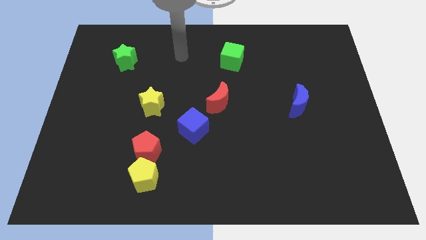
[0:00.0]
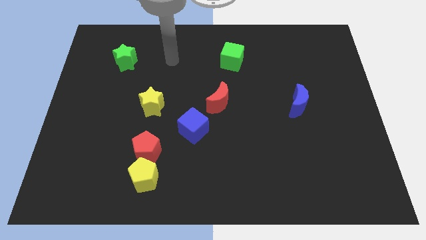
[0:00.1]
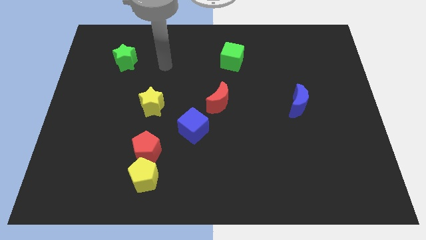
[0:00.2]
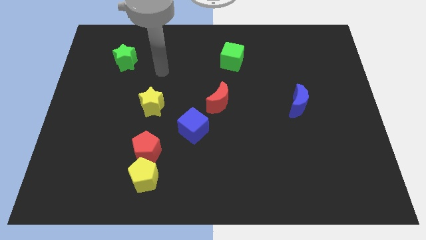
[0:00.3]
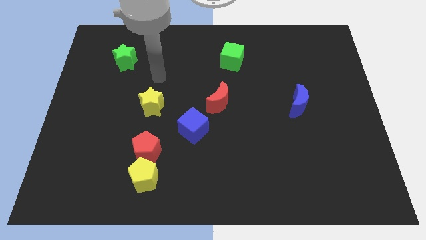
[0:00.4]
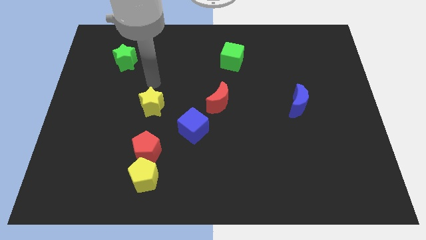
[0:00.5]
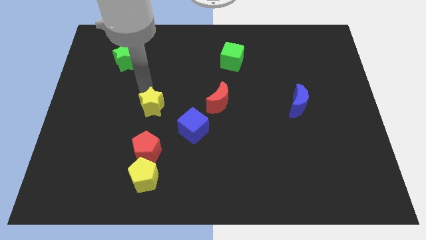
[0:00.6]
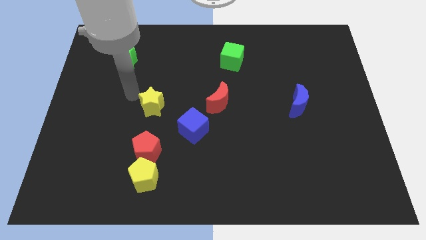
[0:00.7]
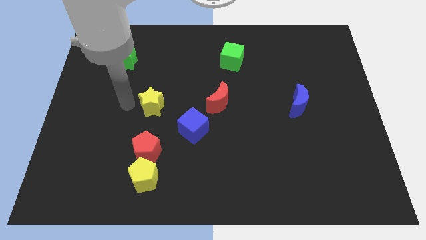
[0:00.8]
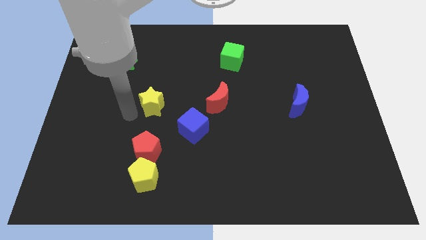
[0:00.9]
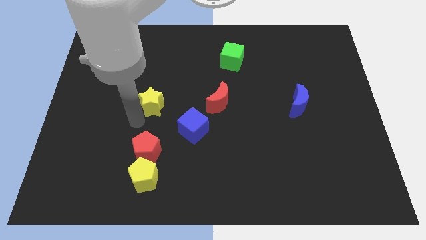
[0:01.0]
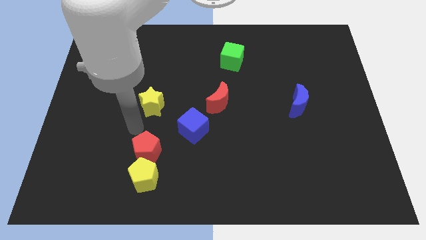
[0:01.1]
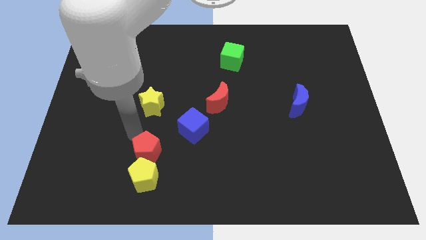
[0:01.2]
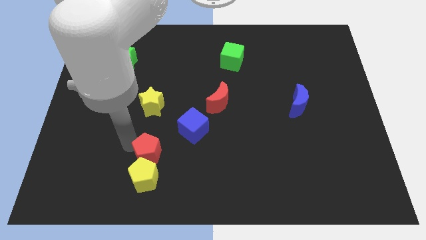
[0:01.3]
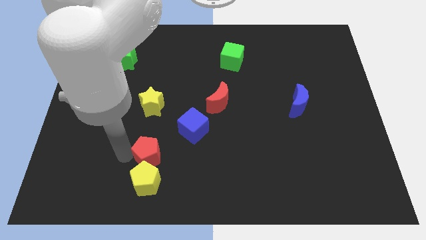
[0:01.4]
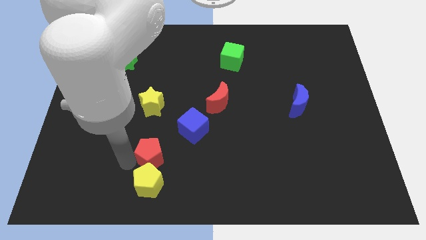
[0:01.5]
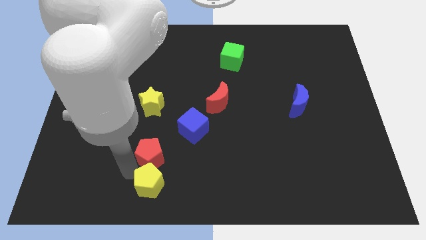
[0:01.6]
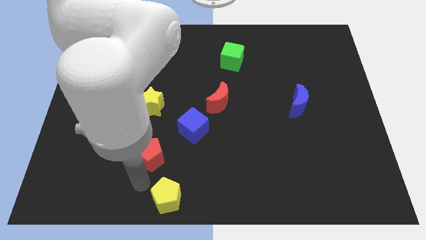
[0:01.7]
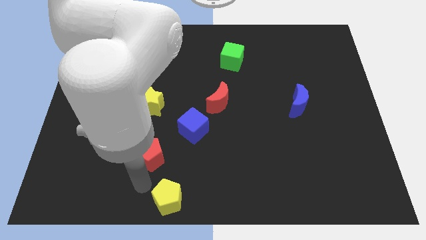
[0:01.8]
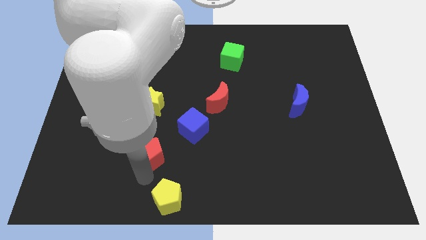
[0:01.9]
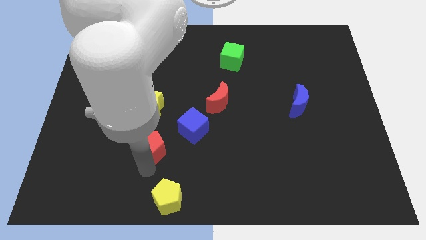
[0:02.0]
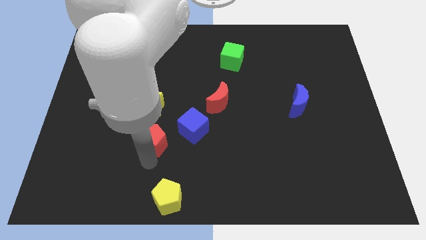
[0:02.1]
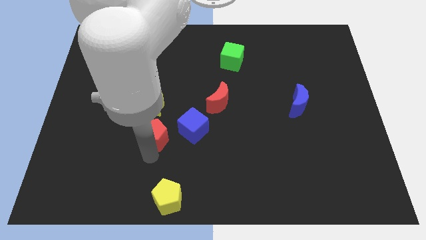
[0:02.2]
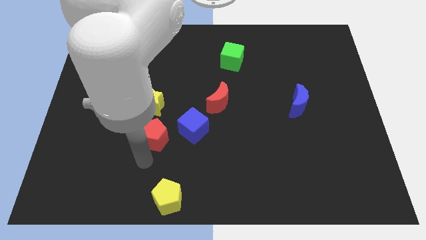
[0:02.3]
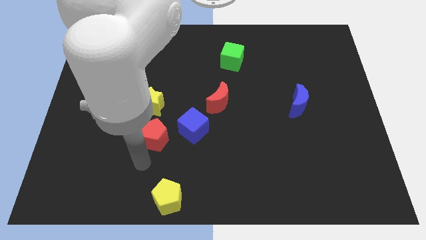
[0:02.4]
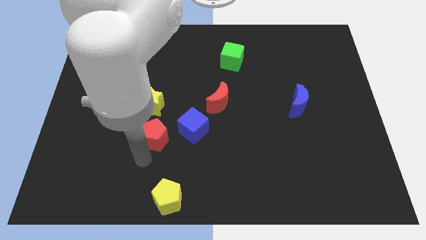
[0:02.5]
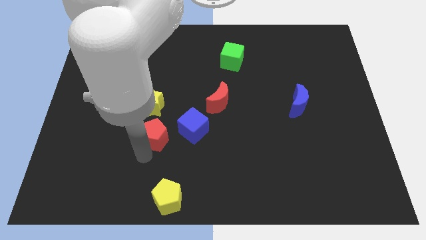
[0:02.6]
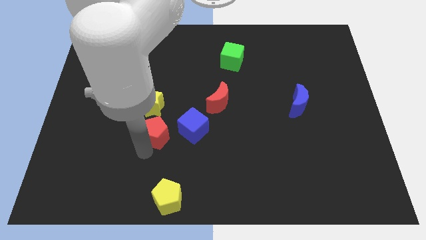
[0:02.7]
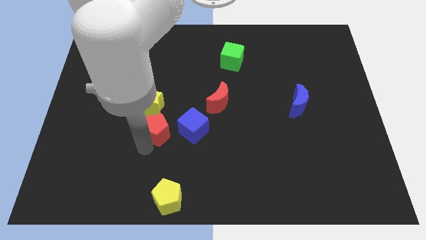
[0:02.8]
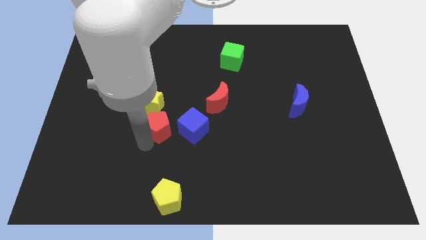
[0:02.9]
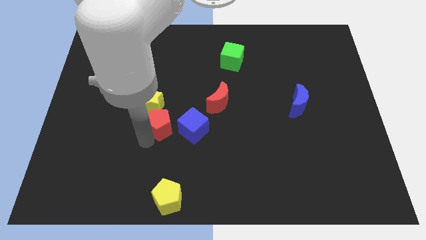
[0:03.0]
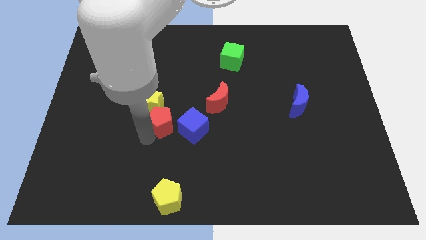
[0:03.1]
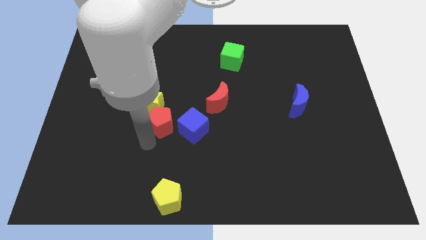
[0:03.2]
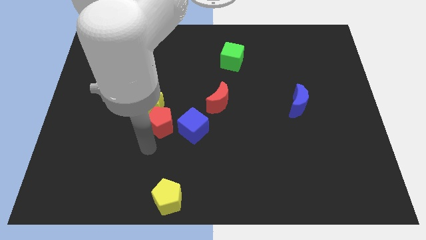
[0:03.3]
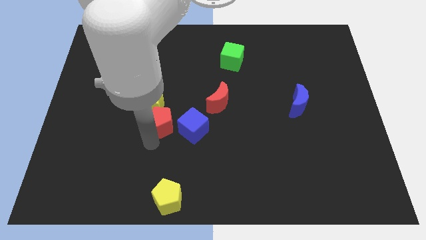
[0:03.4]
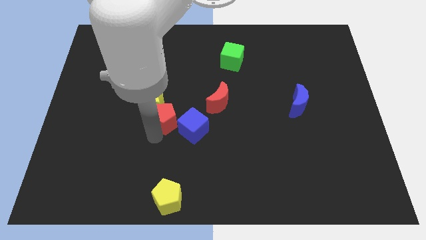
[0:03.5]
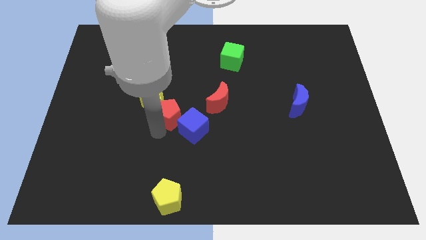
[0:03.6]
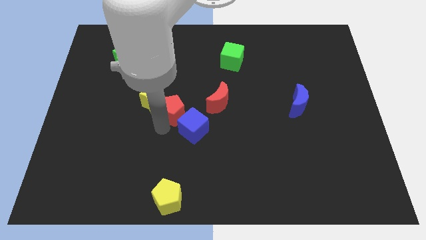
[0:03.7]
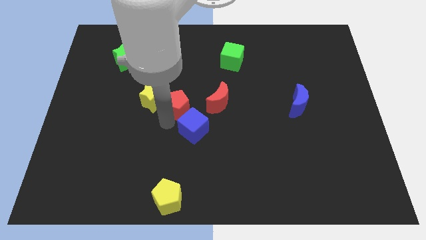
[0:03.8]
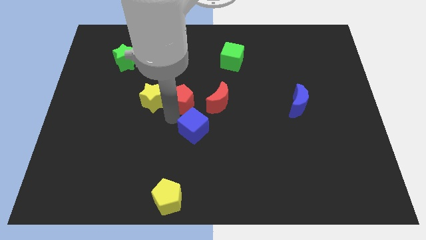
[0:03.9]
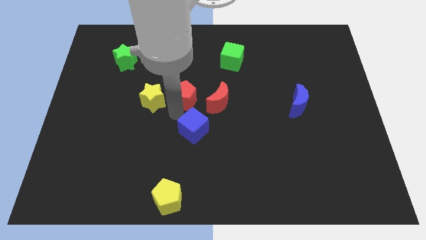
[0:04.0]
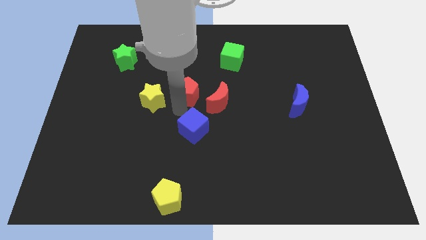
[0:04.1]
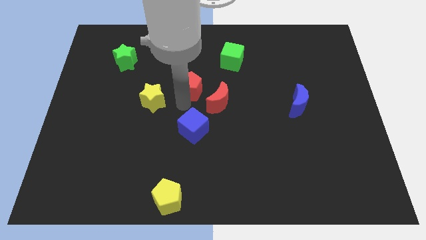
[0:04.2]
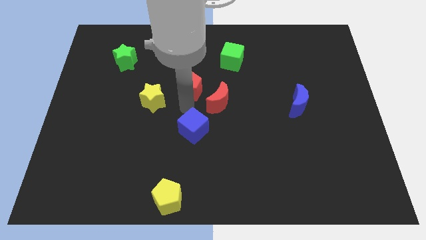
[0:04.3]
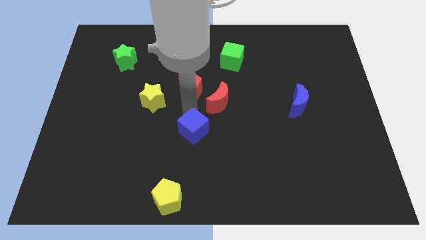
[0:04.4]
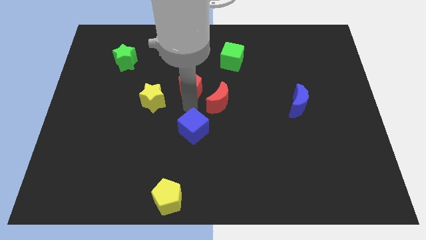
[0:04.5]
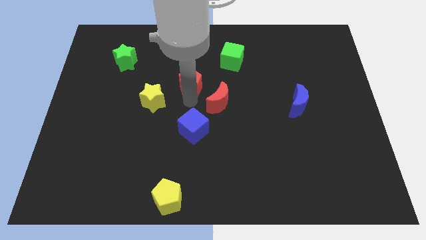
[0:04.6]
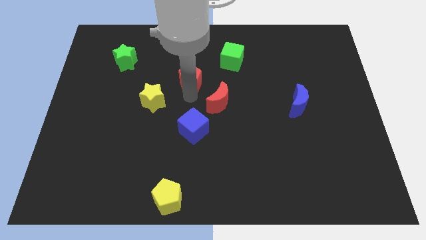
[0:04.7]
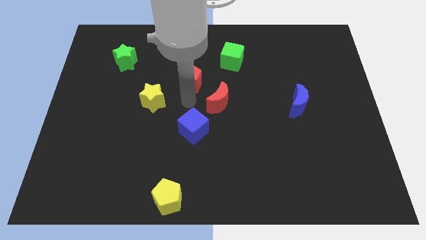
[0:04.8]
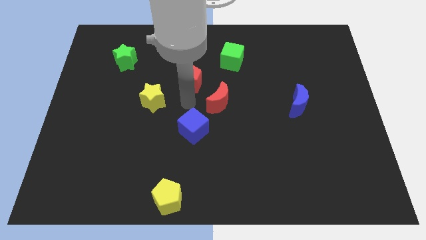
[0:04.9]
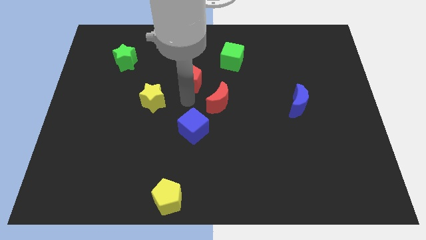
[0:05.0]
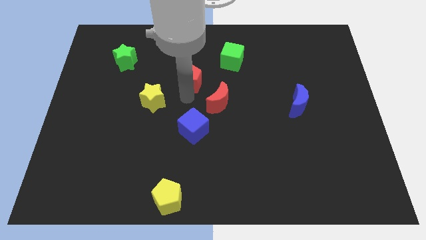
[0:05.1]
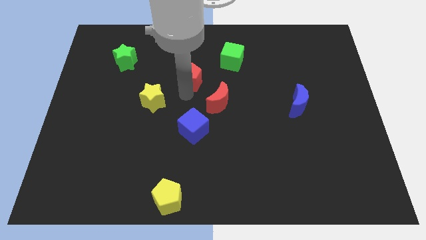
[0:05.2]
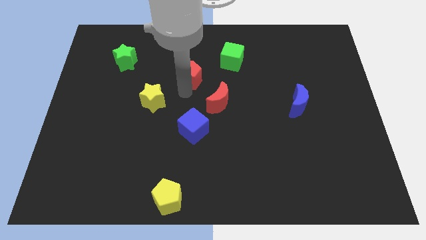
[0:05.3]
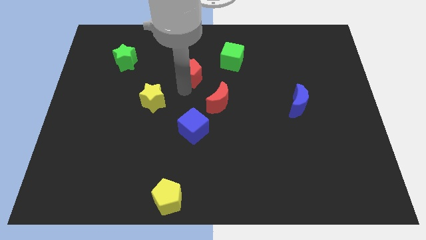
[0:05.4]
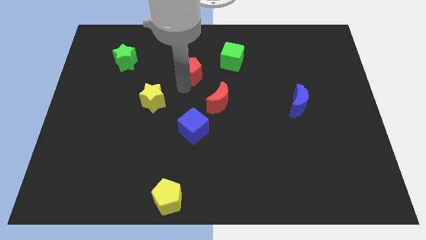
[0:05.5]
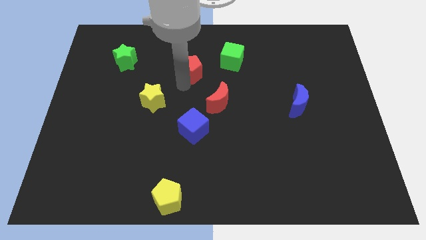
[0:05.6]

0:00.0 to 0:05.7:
push the red pentagon to the left of the green cube

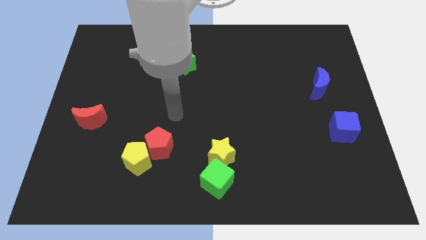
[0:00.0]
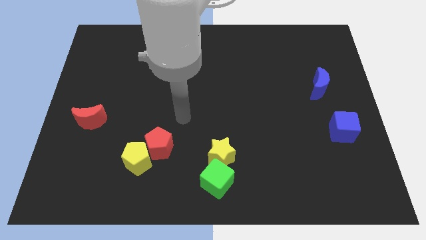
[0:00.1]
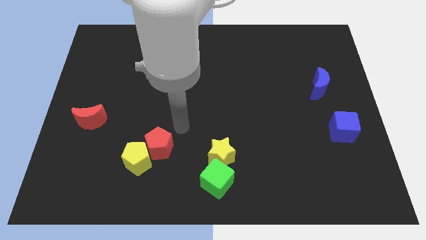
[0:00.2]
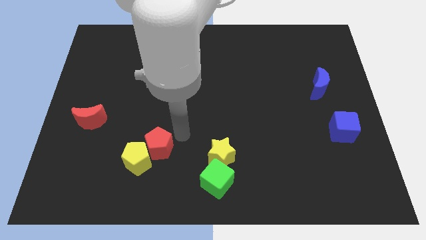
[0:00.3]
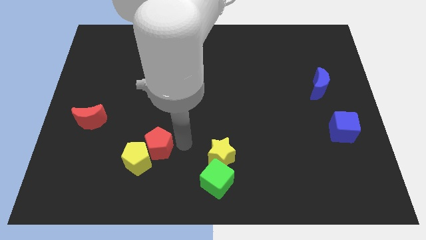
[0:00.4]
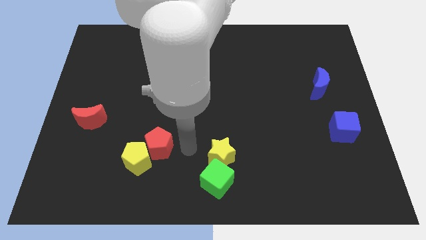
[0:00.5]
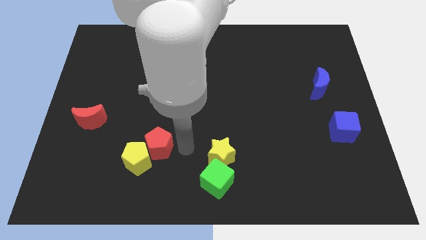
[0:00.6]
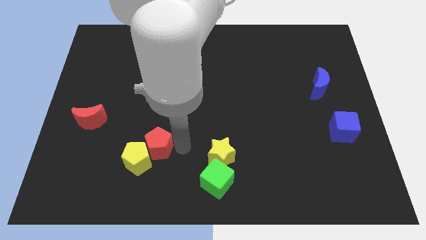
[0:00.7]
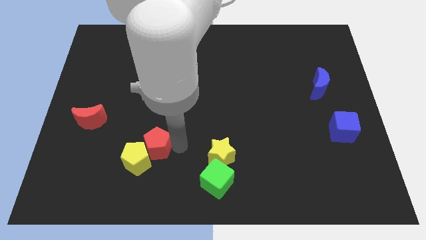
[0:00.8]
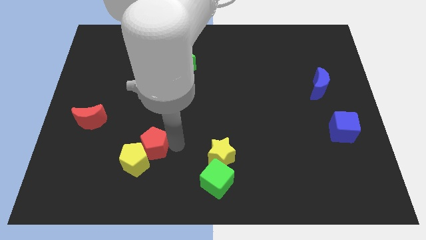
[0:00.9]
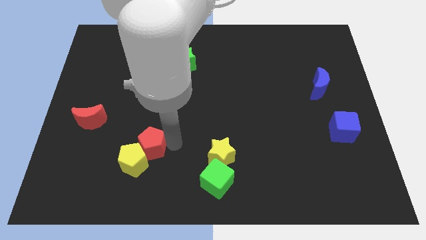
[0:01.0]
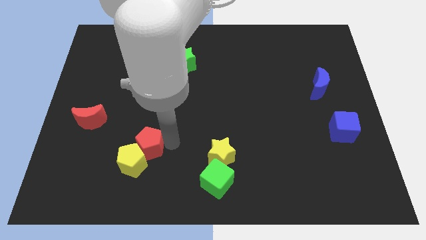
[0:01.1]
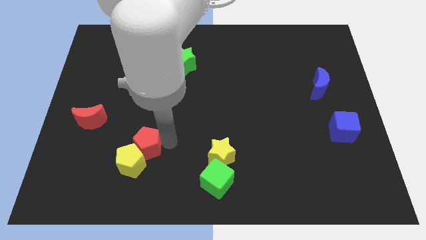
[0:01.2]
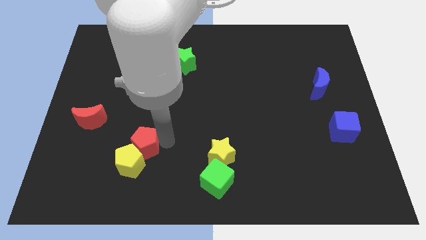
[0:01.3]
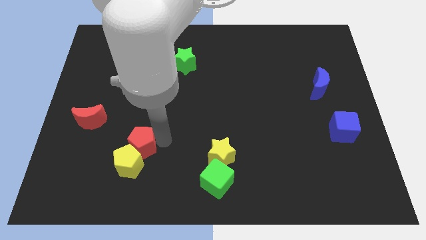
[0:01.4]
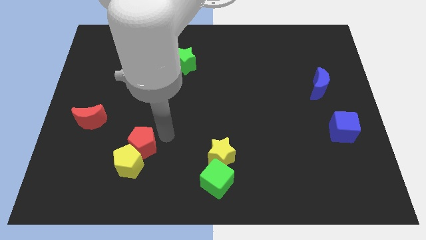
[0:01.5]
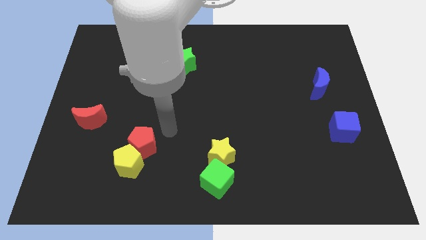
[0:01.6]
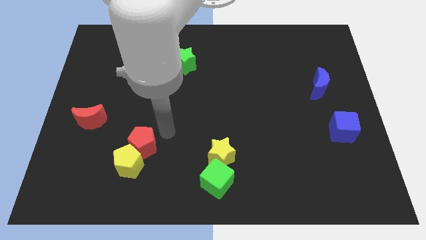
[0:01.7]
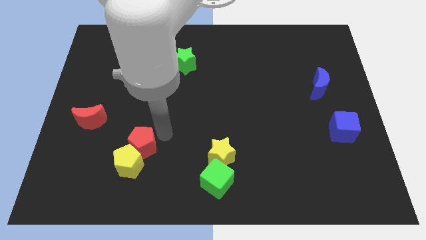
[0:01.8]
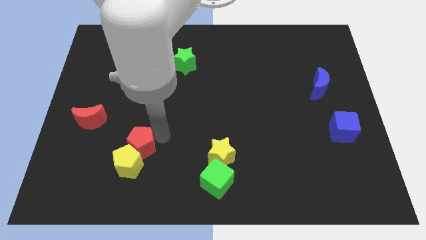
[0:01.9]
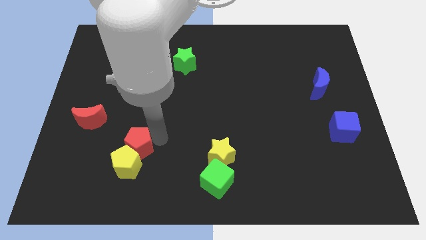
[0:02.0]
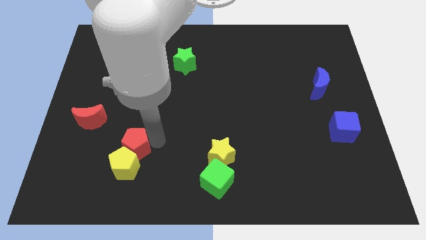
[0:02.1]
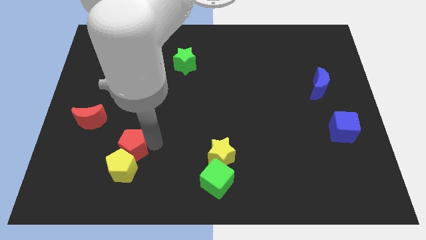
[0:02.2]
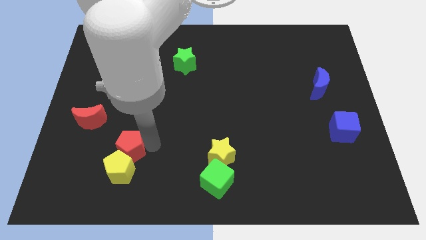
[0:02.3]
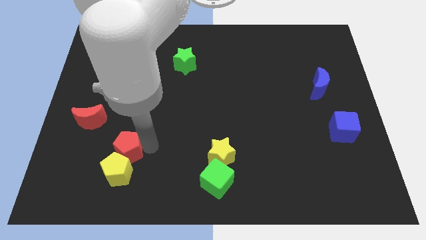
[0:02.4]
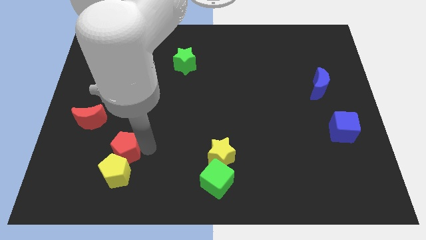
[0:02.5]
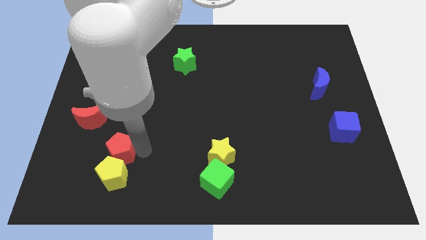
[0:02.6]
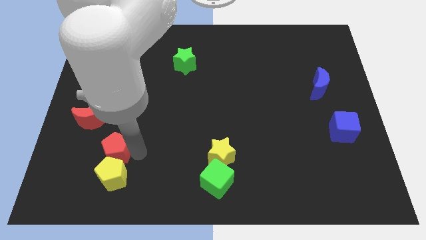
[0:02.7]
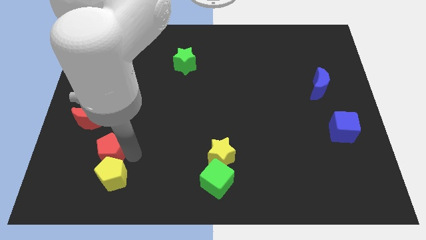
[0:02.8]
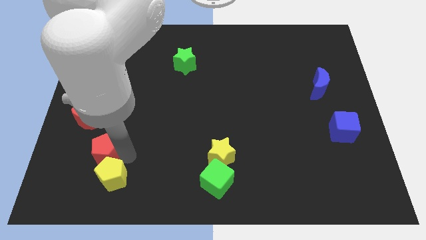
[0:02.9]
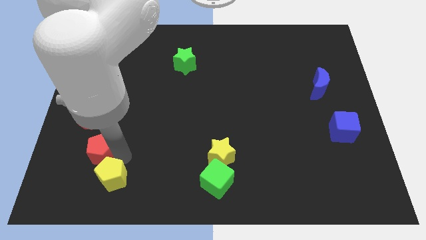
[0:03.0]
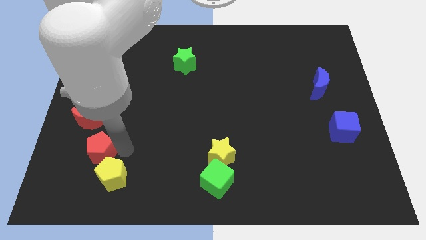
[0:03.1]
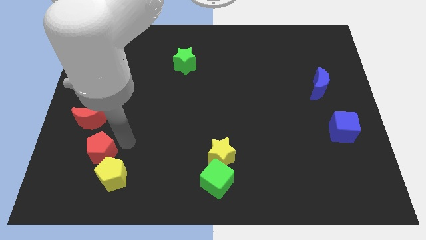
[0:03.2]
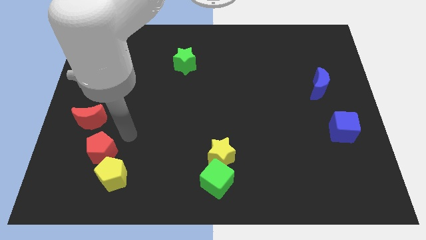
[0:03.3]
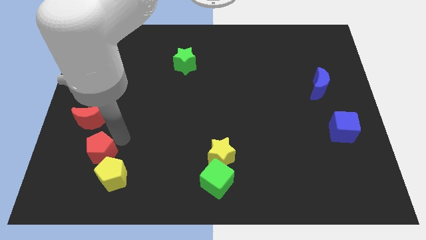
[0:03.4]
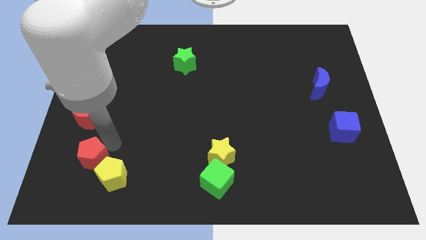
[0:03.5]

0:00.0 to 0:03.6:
push the red pentagon just left of the yellow pentagon
